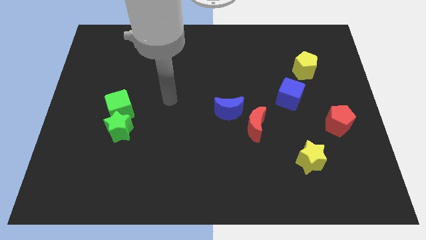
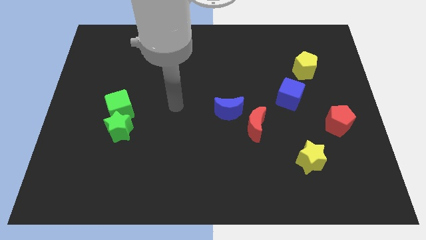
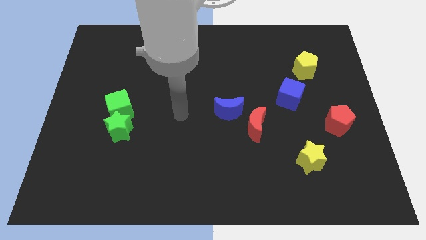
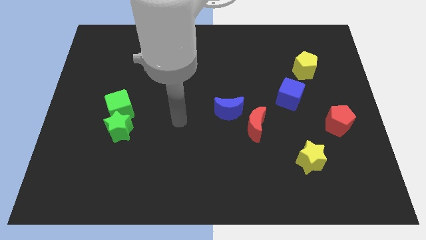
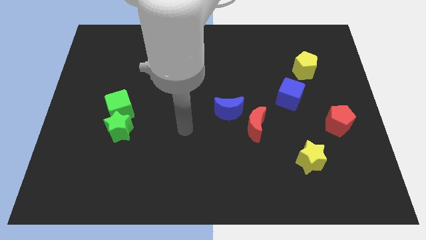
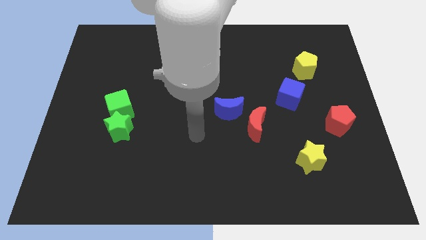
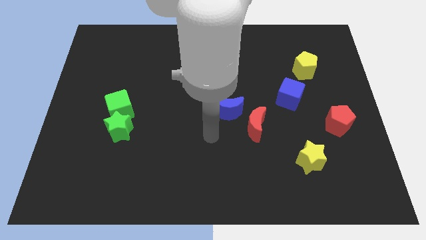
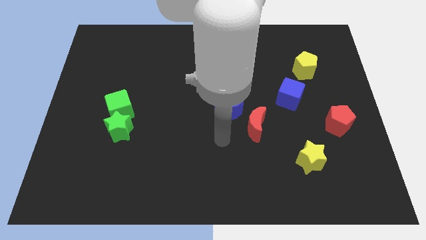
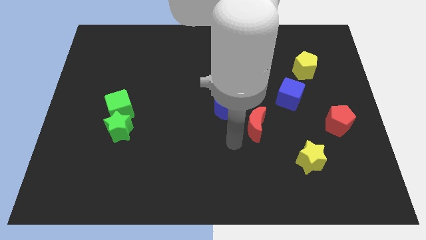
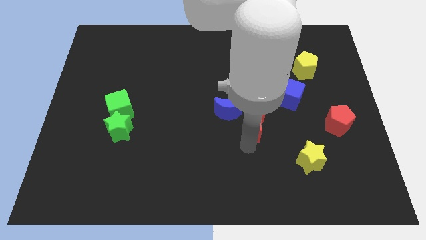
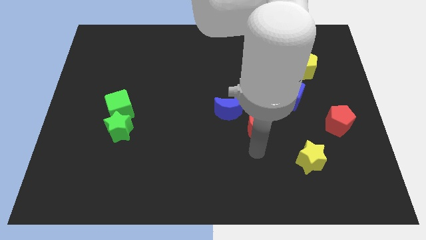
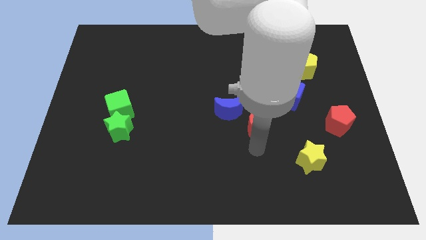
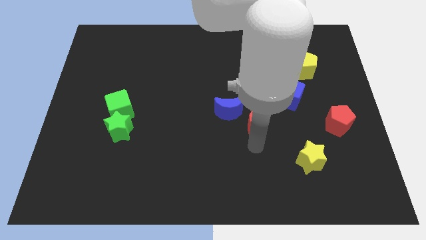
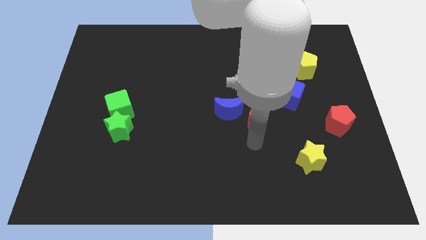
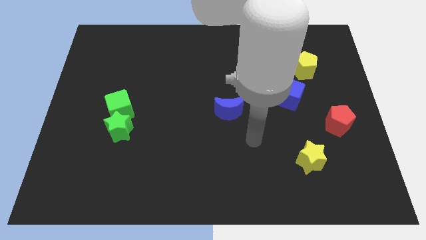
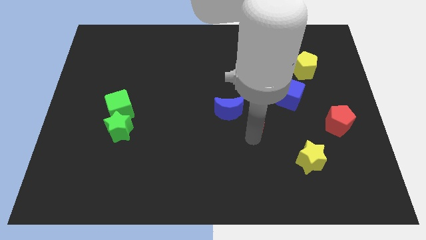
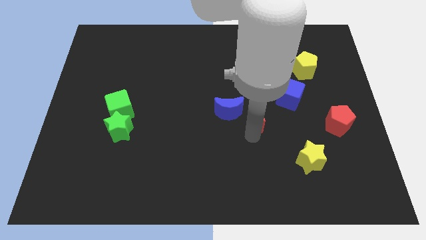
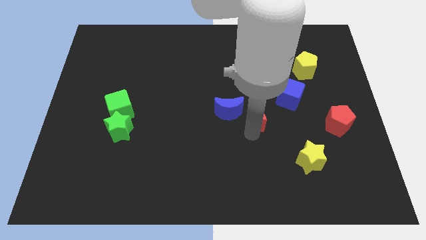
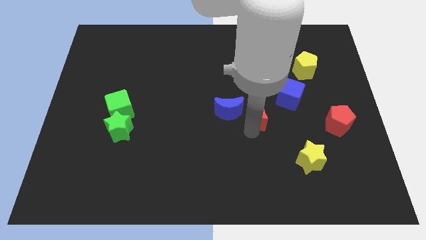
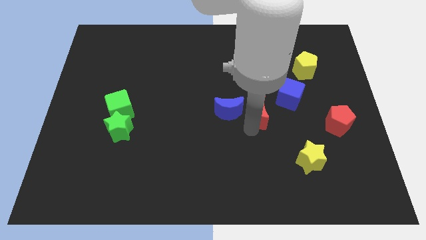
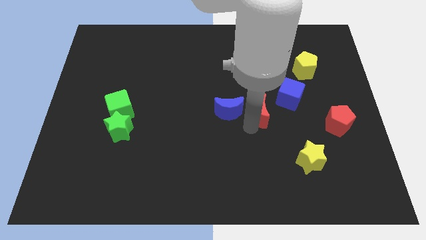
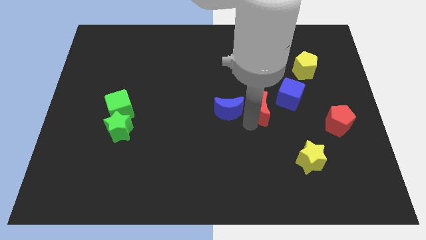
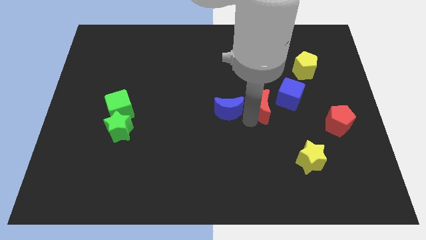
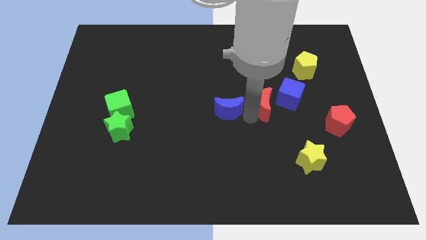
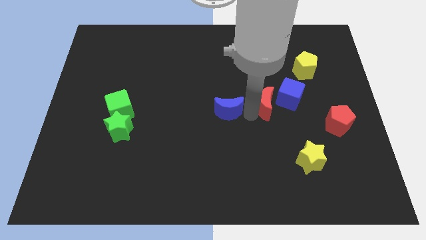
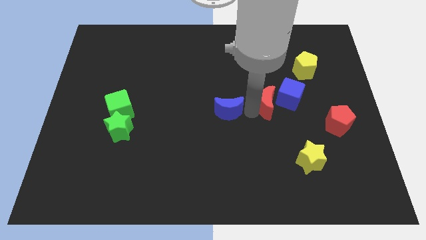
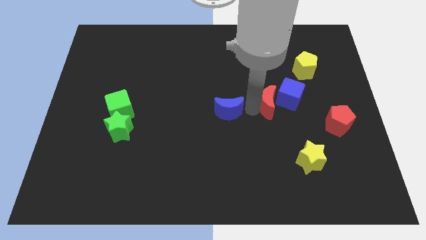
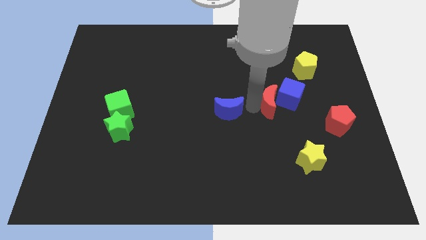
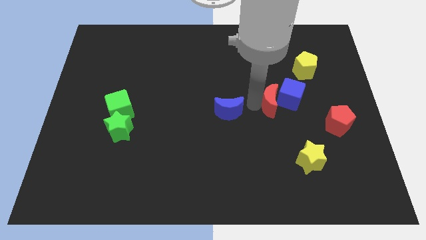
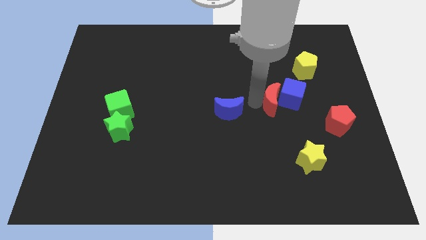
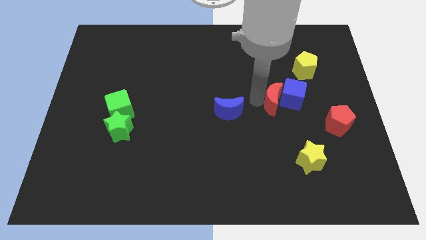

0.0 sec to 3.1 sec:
push the red moon a bit up

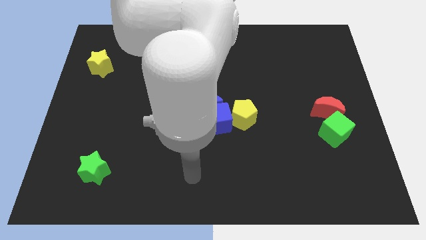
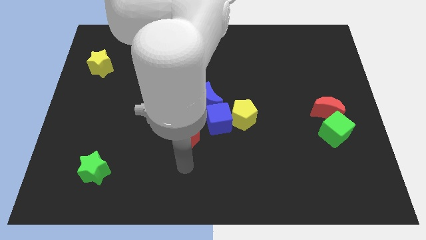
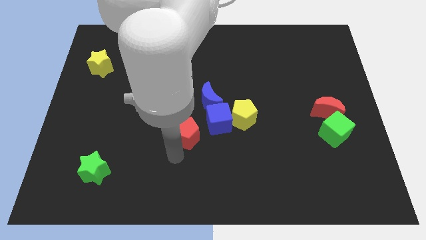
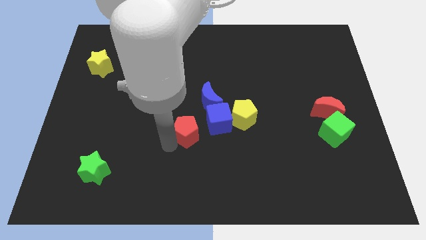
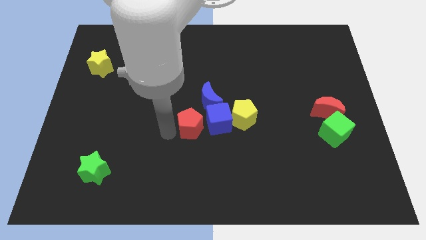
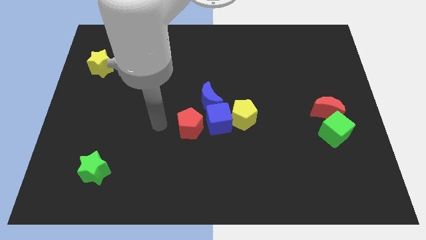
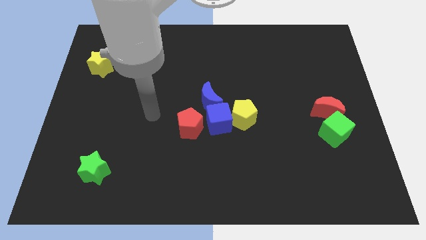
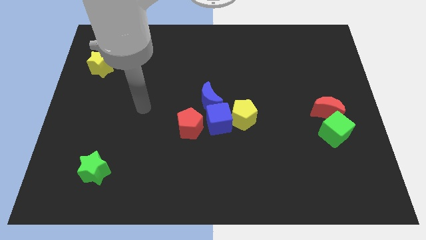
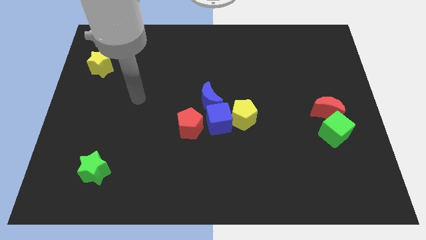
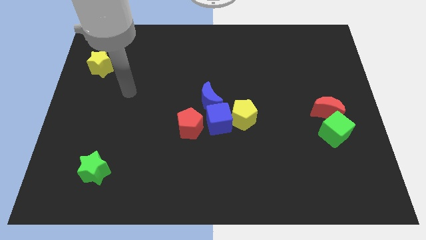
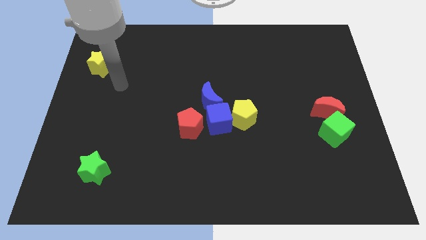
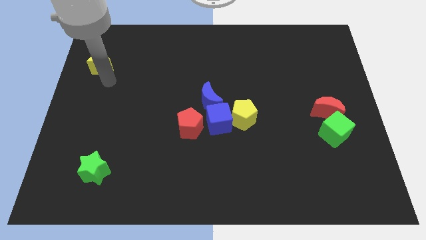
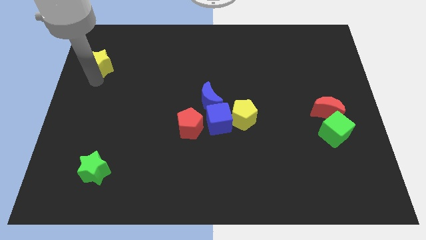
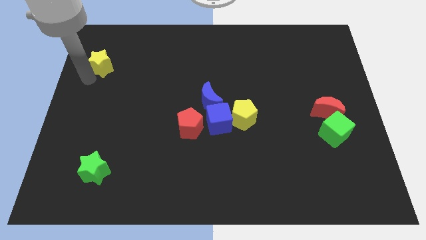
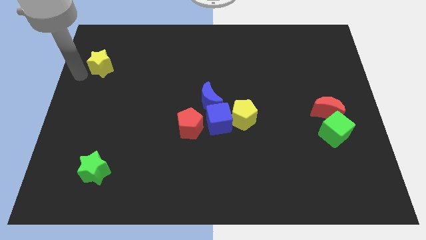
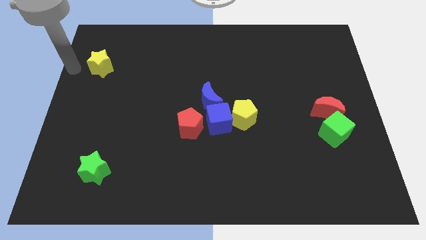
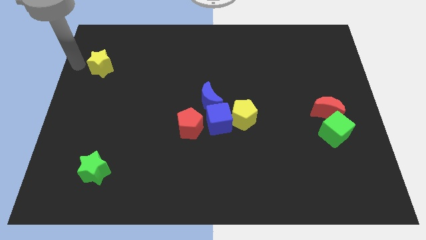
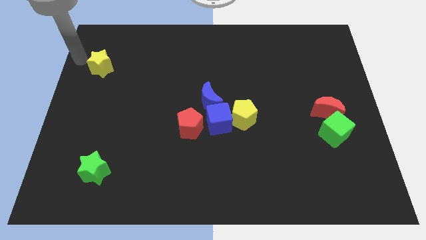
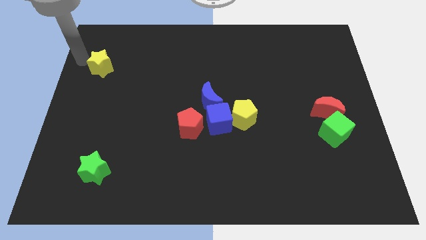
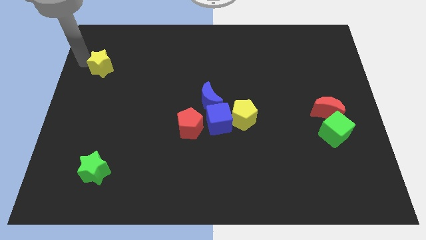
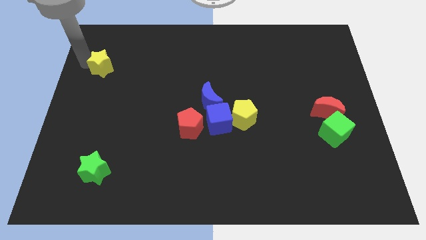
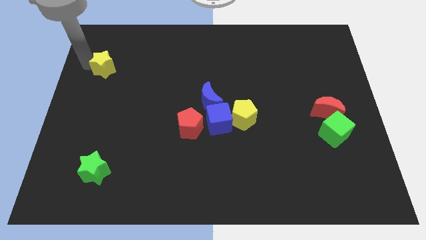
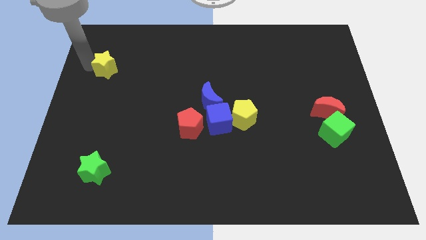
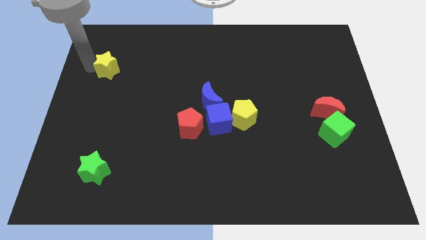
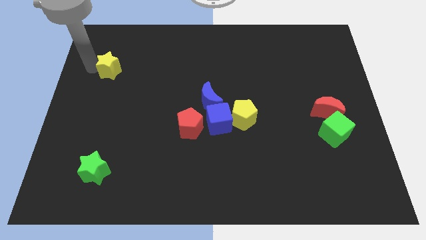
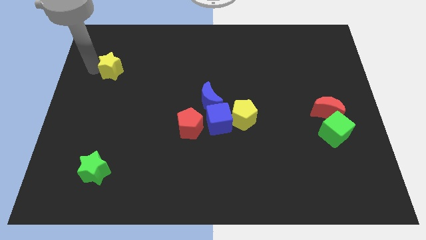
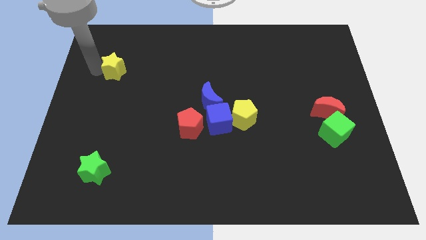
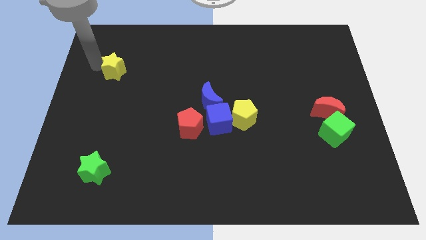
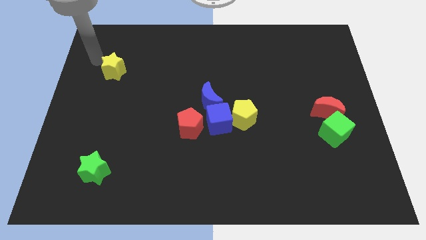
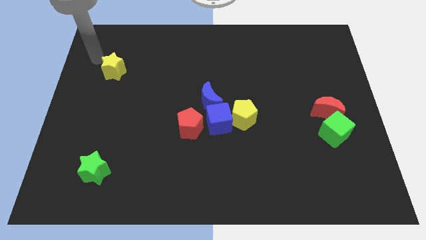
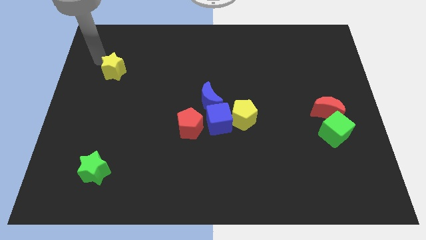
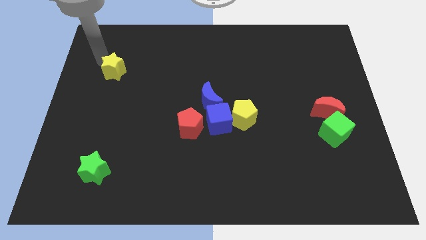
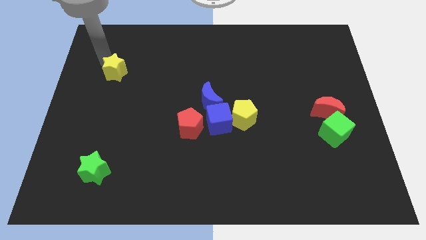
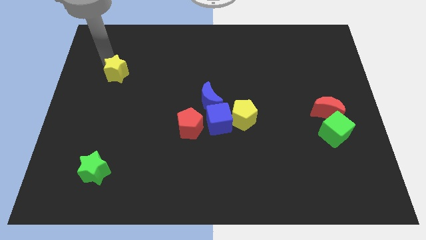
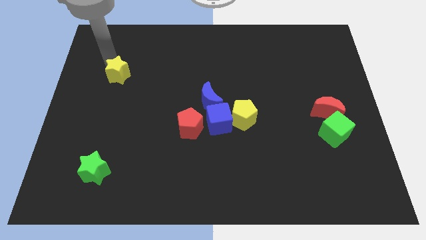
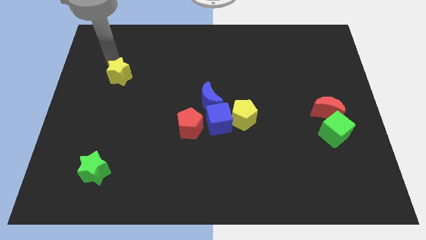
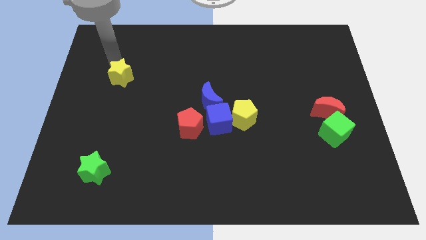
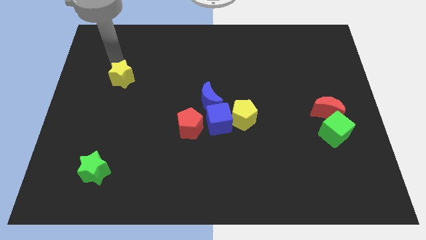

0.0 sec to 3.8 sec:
slightly push the yellow star down and right

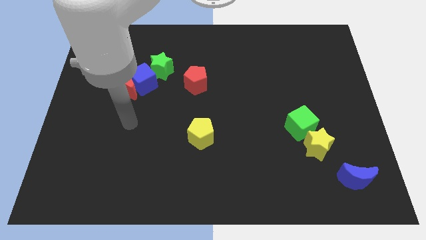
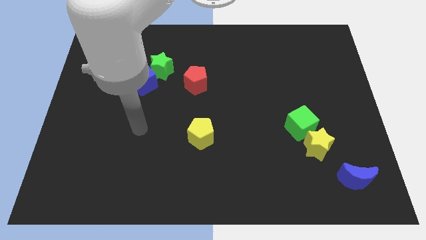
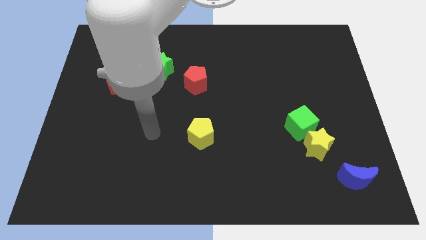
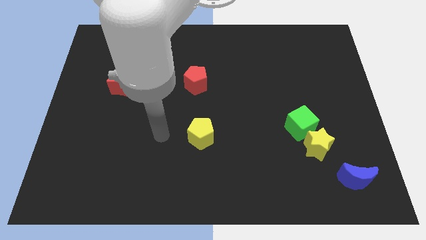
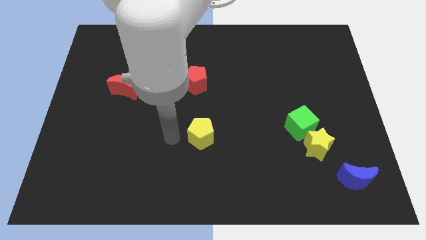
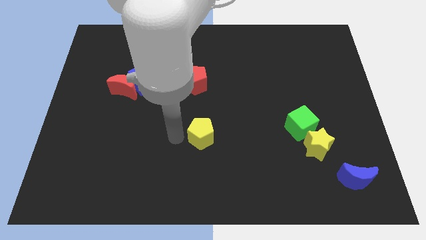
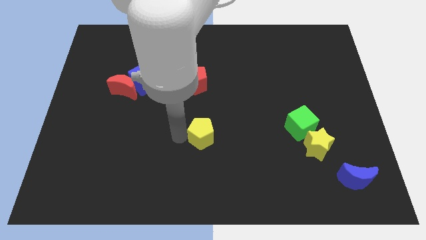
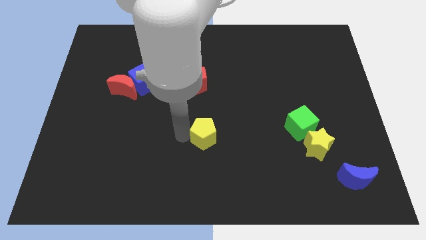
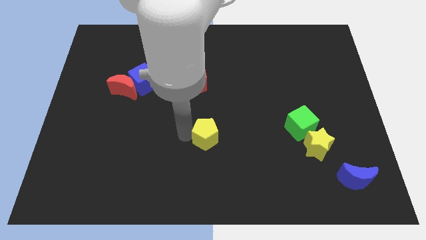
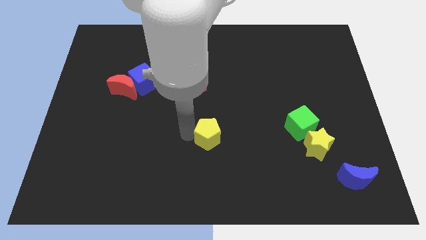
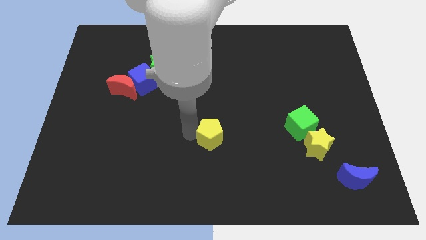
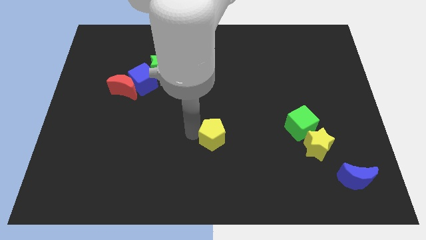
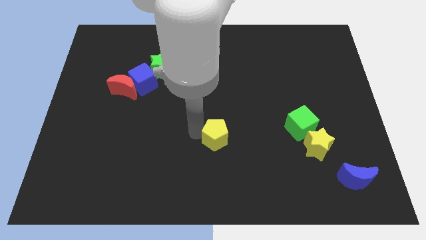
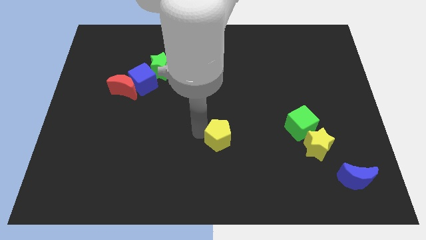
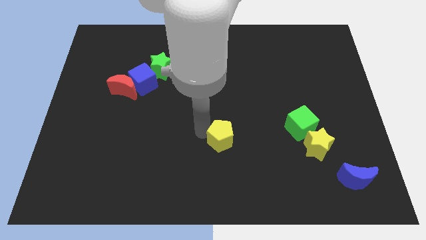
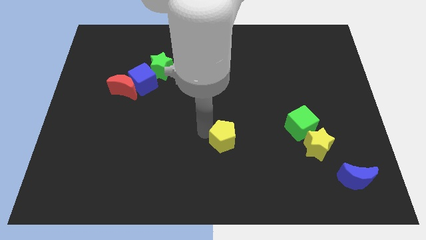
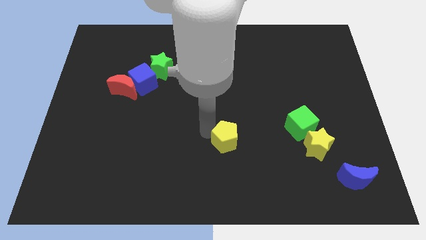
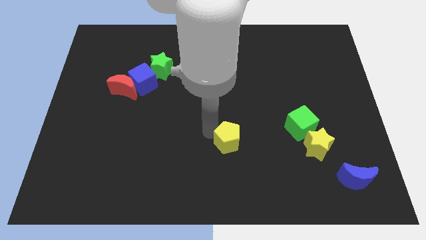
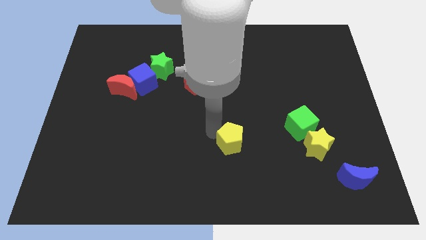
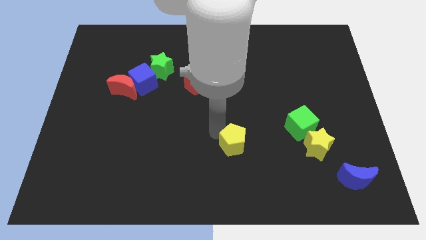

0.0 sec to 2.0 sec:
slightly move the yellow pentagon to the right
